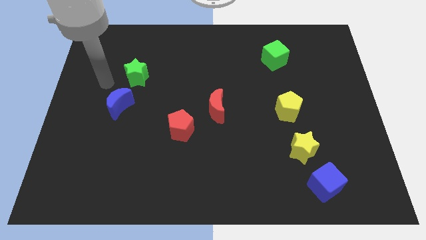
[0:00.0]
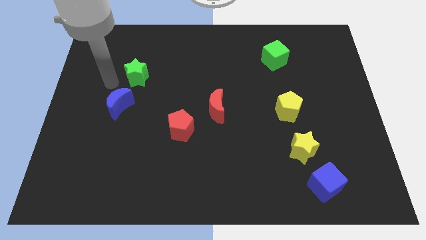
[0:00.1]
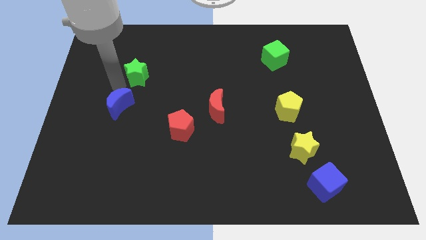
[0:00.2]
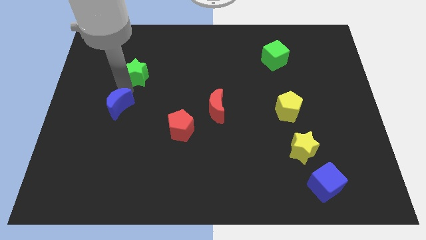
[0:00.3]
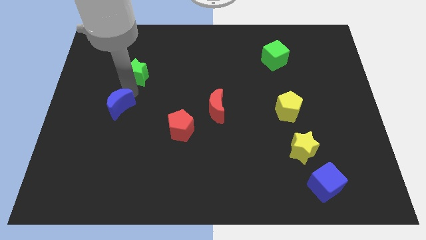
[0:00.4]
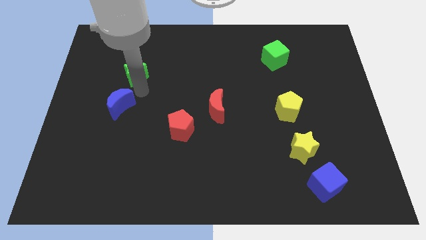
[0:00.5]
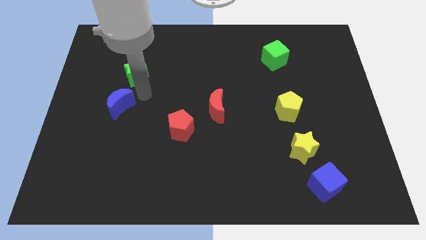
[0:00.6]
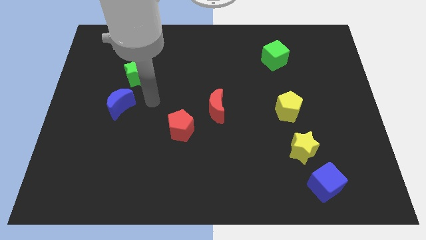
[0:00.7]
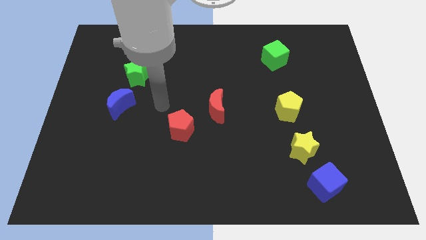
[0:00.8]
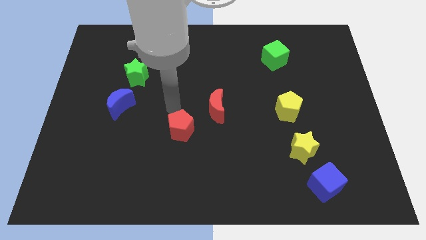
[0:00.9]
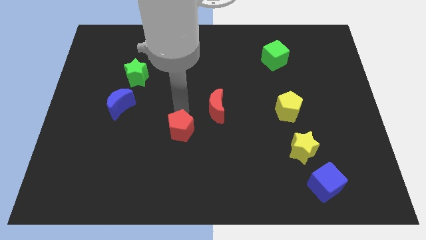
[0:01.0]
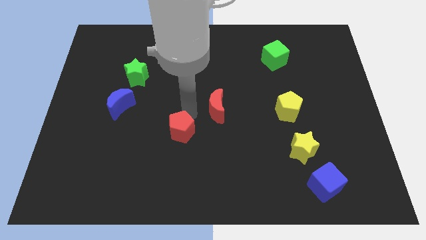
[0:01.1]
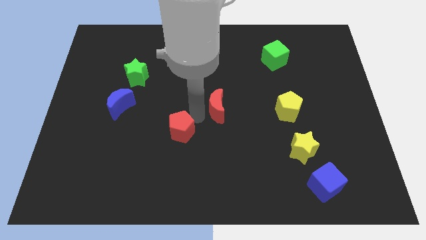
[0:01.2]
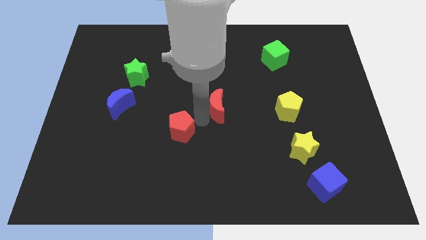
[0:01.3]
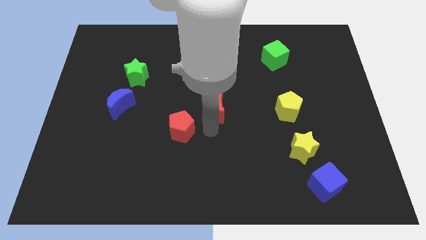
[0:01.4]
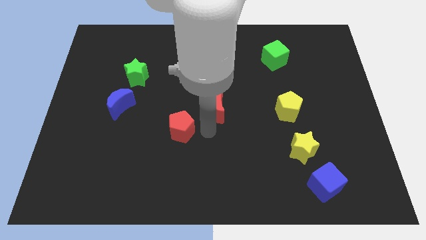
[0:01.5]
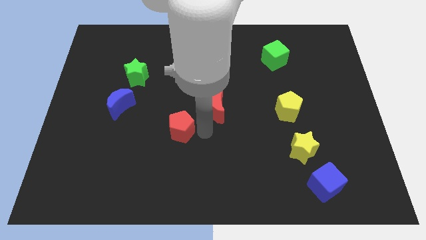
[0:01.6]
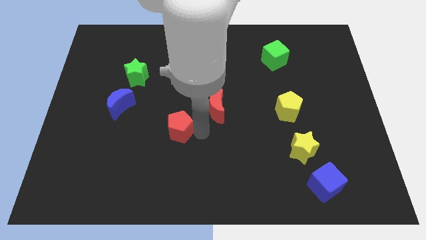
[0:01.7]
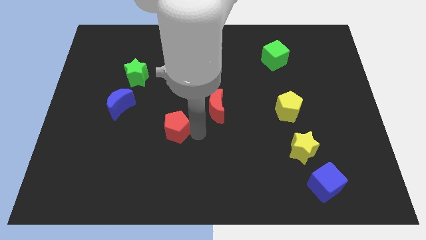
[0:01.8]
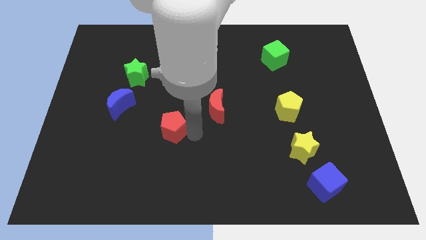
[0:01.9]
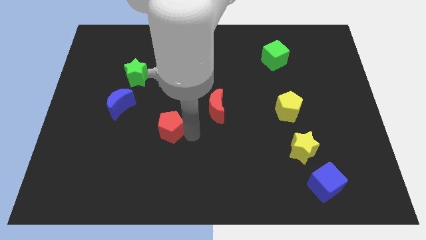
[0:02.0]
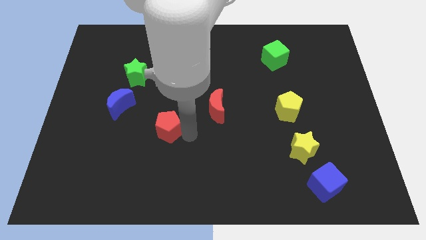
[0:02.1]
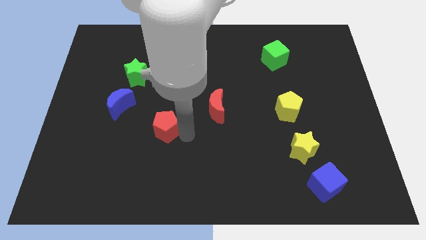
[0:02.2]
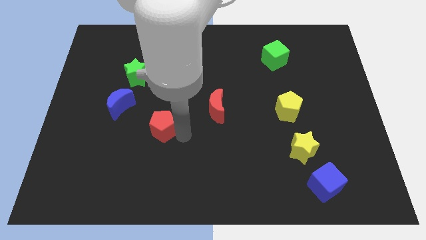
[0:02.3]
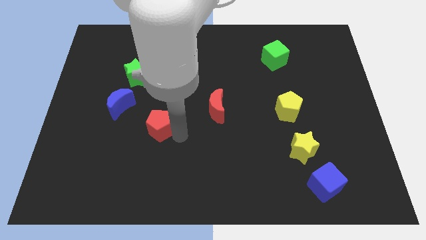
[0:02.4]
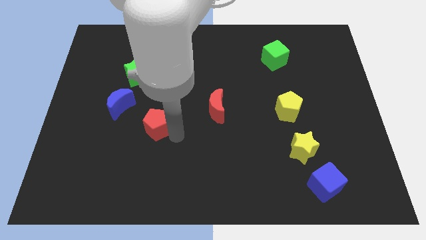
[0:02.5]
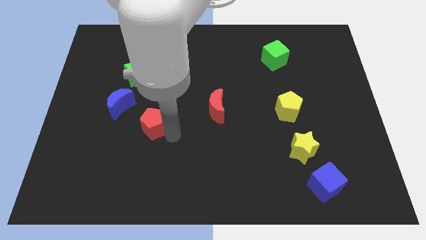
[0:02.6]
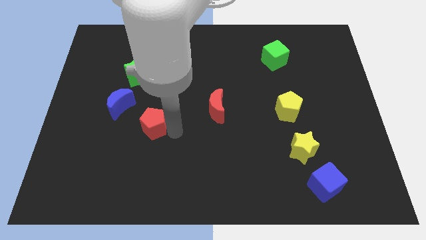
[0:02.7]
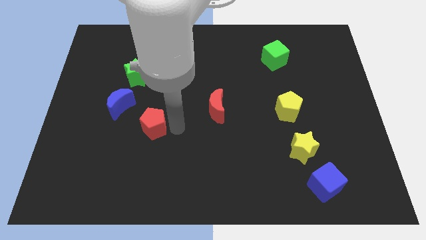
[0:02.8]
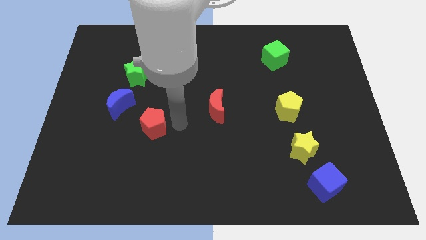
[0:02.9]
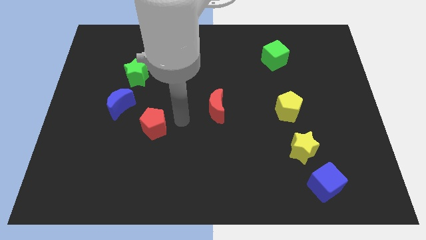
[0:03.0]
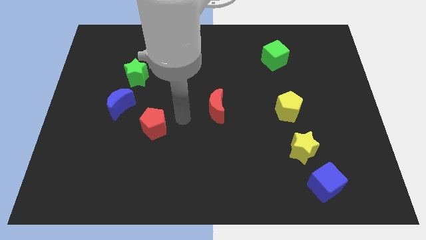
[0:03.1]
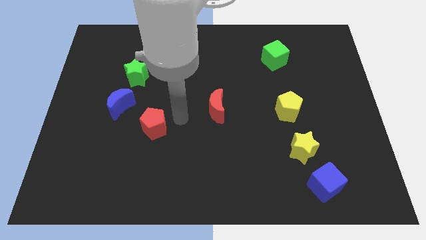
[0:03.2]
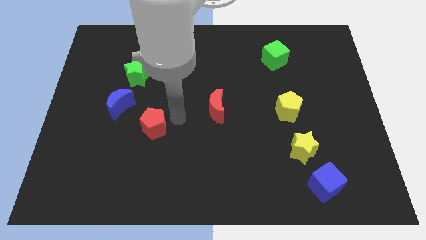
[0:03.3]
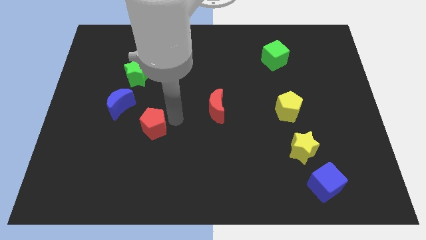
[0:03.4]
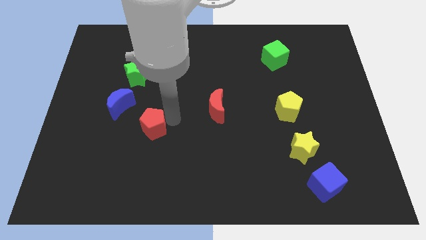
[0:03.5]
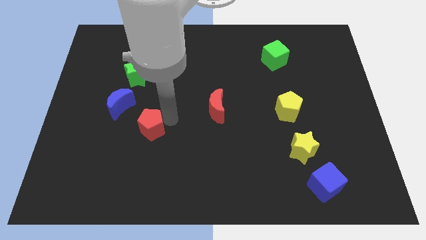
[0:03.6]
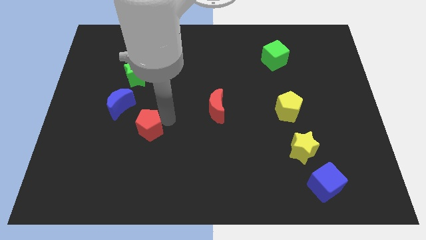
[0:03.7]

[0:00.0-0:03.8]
push the red pentagon somewhat left

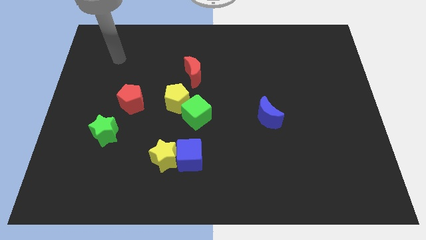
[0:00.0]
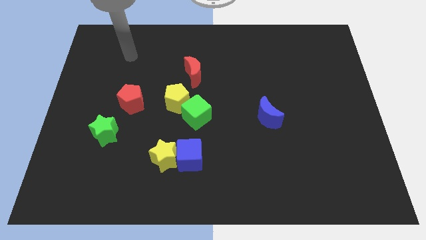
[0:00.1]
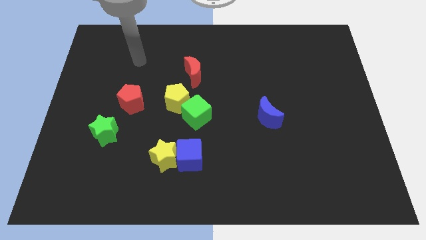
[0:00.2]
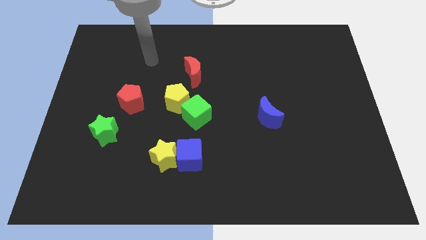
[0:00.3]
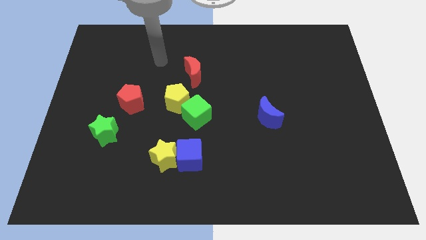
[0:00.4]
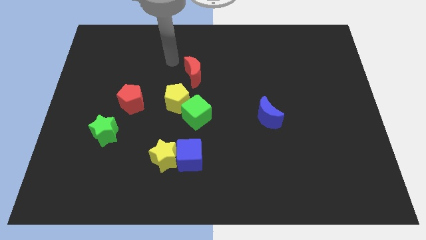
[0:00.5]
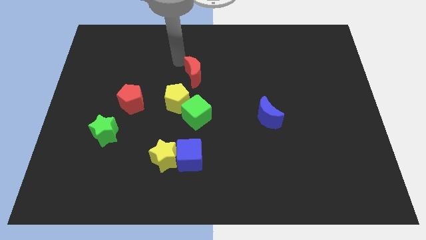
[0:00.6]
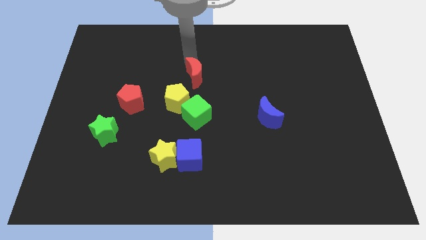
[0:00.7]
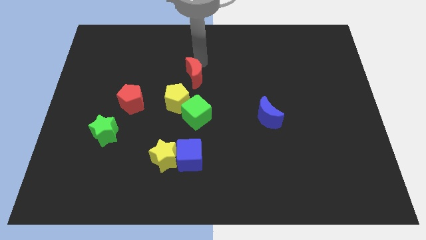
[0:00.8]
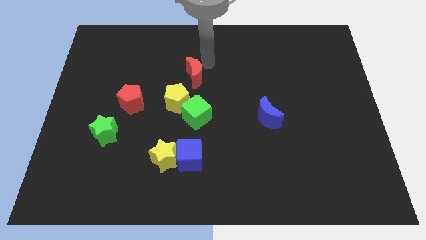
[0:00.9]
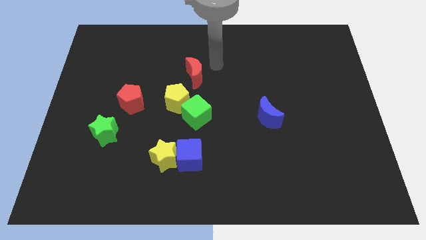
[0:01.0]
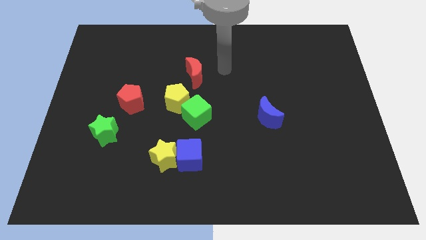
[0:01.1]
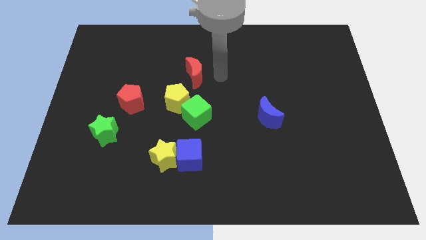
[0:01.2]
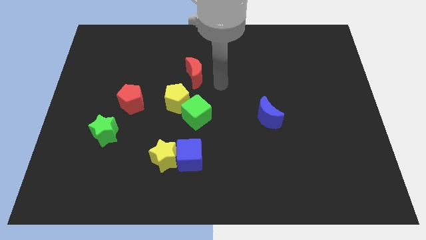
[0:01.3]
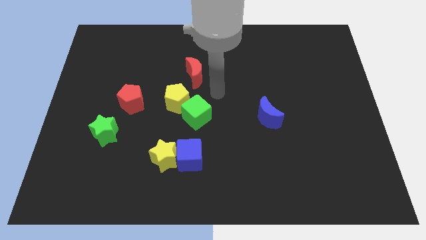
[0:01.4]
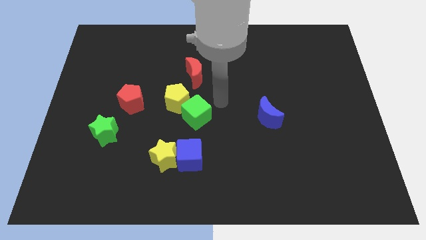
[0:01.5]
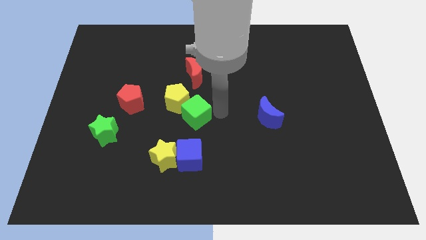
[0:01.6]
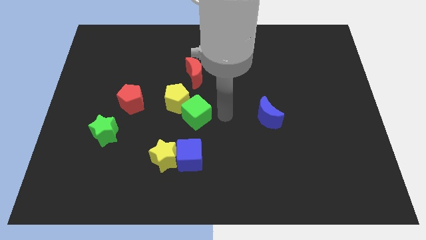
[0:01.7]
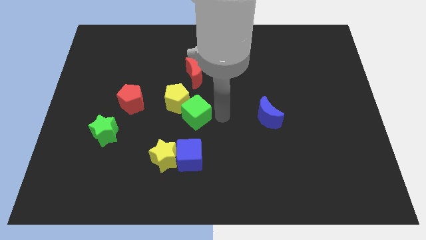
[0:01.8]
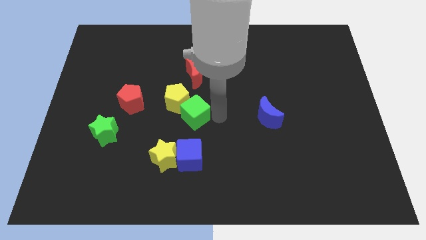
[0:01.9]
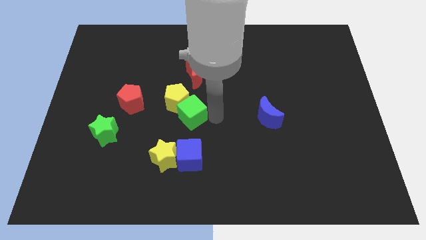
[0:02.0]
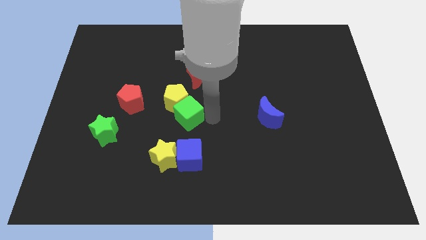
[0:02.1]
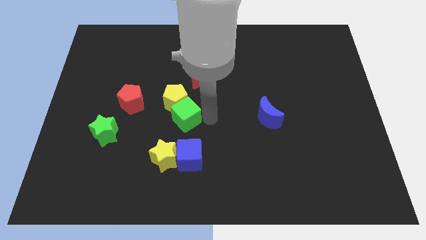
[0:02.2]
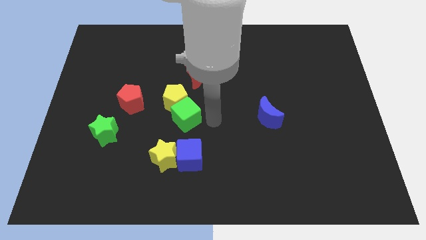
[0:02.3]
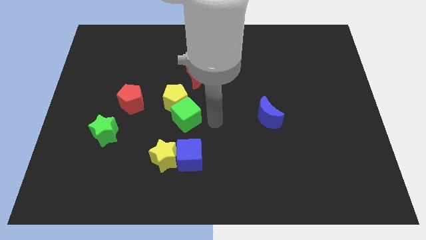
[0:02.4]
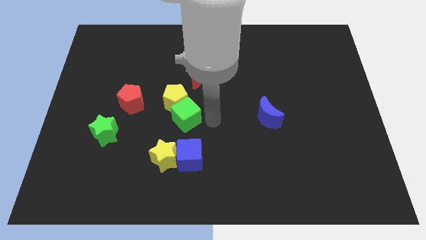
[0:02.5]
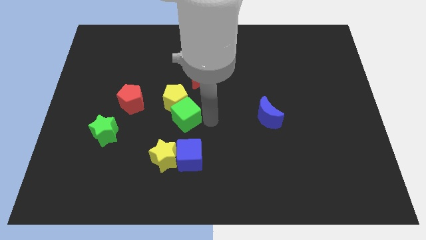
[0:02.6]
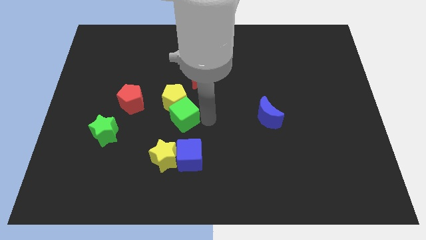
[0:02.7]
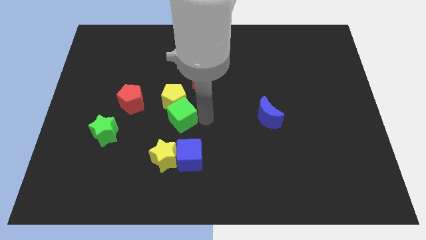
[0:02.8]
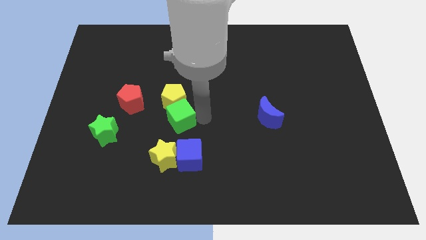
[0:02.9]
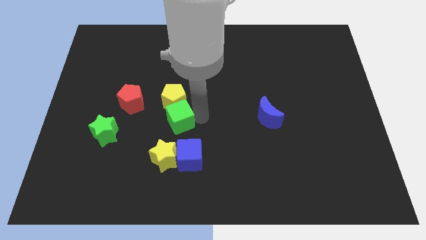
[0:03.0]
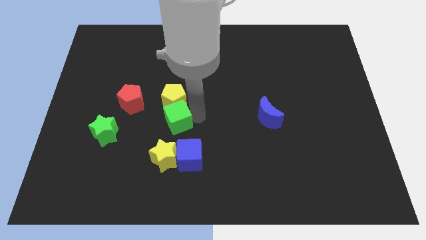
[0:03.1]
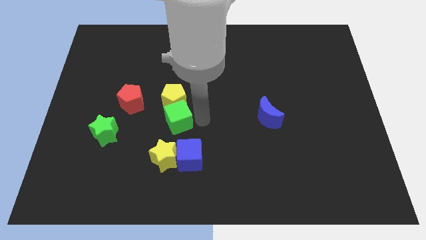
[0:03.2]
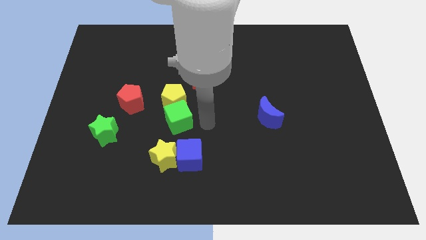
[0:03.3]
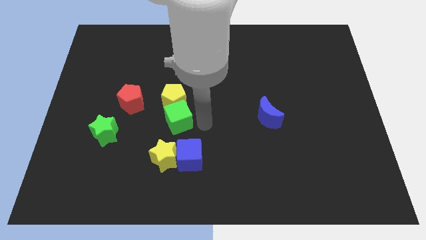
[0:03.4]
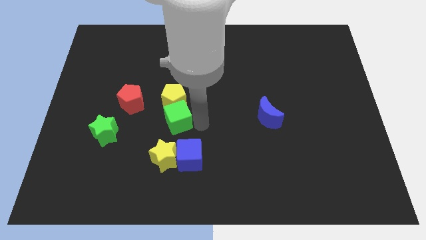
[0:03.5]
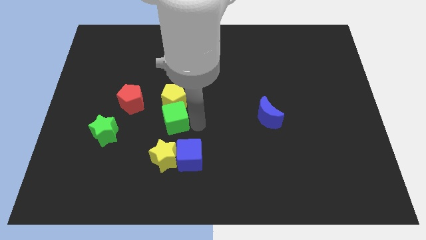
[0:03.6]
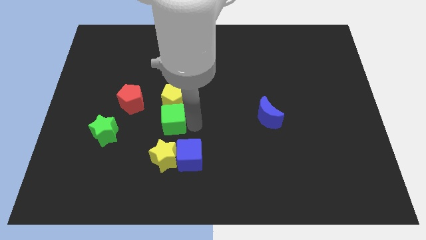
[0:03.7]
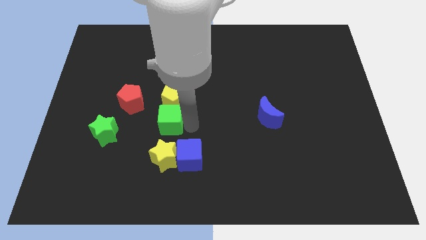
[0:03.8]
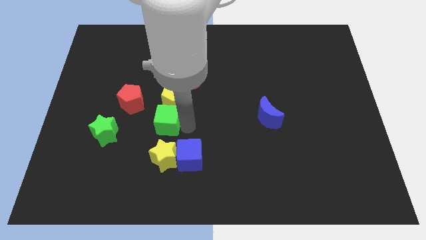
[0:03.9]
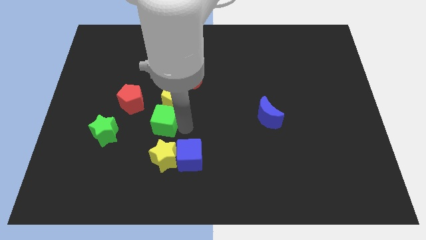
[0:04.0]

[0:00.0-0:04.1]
slightly push the green cube left

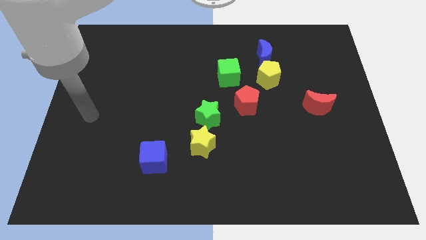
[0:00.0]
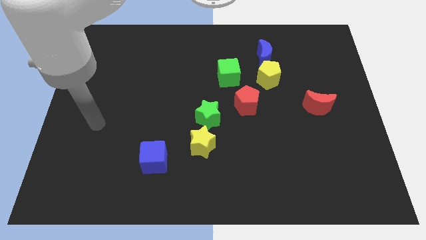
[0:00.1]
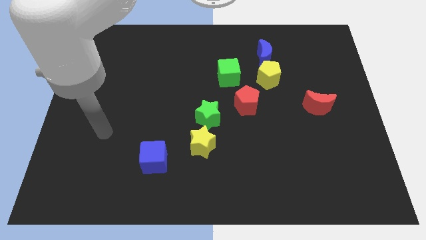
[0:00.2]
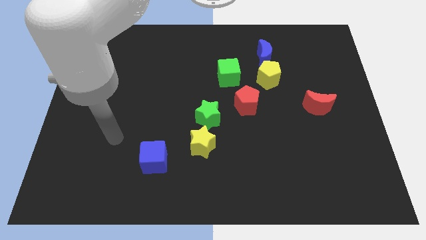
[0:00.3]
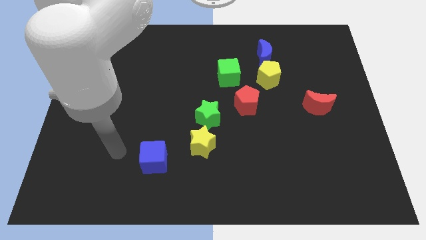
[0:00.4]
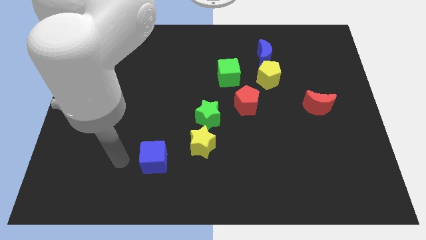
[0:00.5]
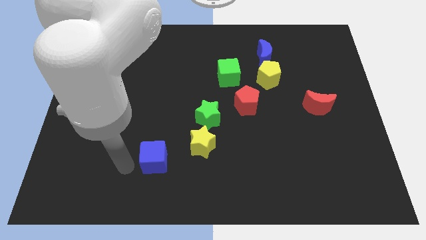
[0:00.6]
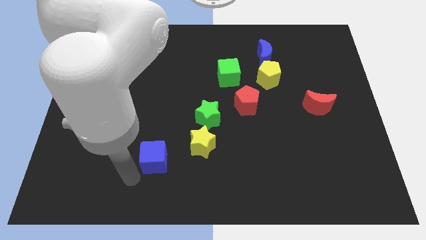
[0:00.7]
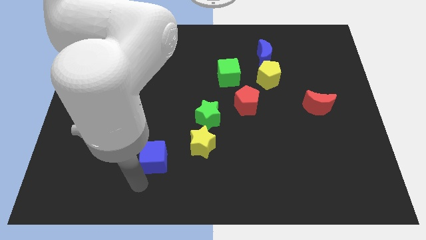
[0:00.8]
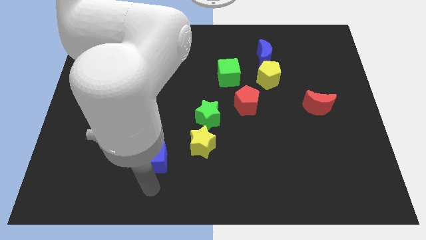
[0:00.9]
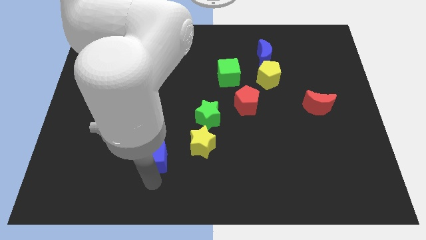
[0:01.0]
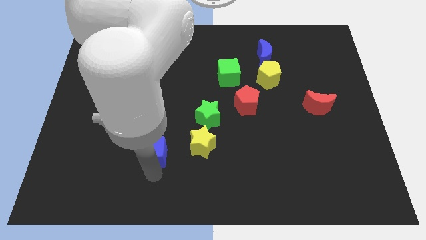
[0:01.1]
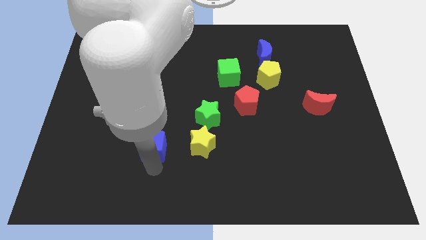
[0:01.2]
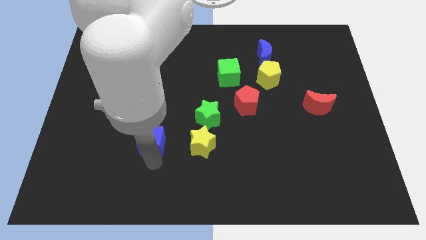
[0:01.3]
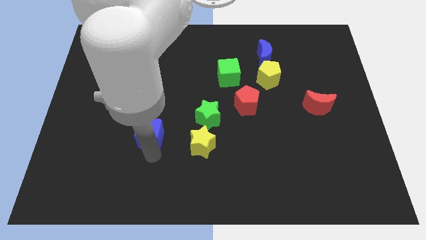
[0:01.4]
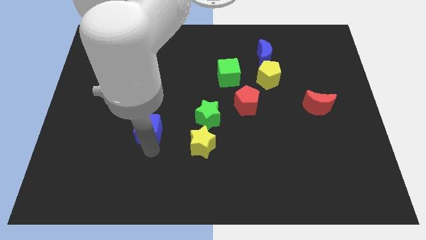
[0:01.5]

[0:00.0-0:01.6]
push the blue cube somewhat upwards
